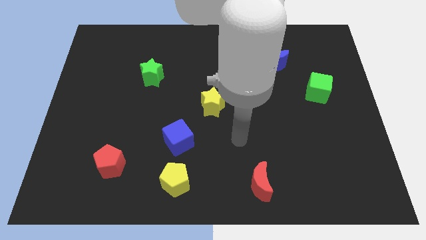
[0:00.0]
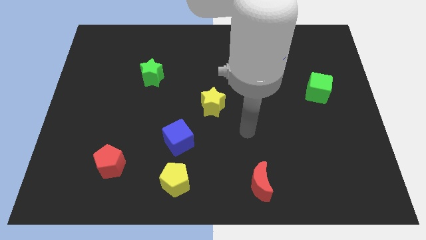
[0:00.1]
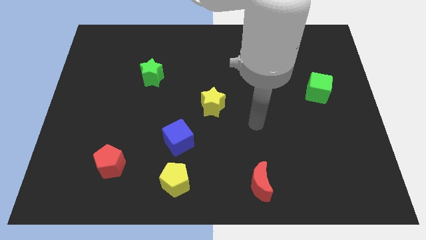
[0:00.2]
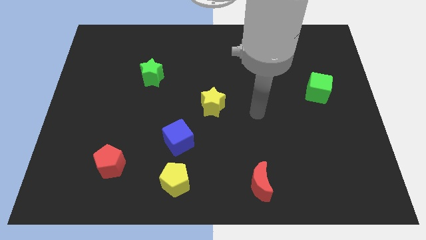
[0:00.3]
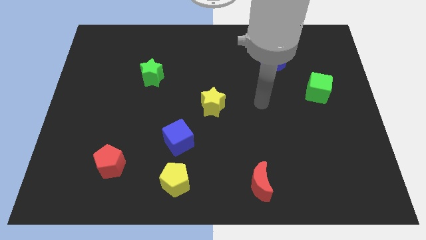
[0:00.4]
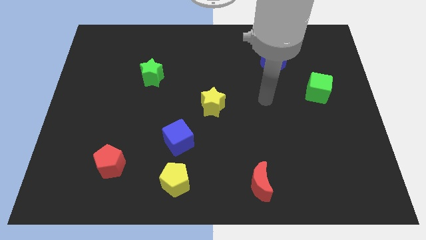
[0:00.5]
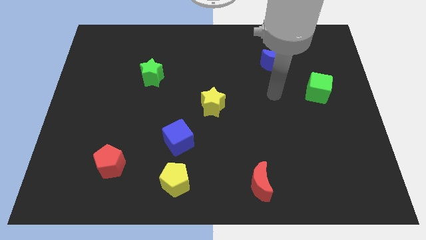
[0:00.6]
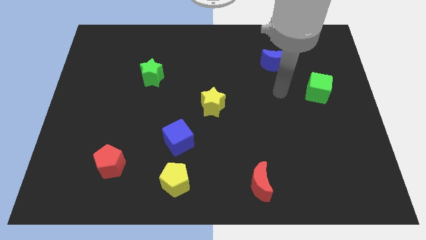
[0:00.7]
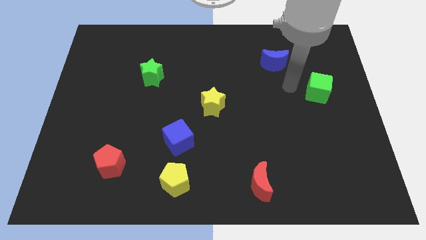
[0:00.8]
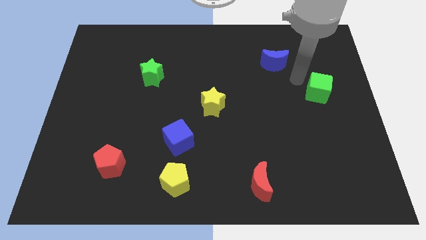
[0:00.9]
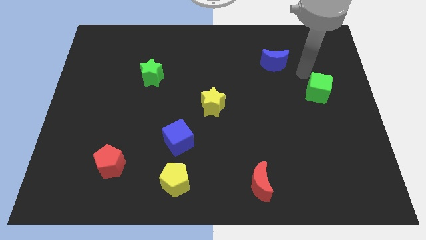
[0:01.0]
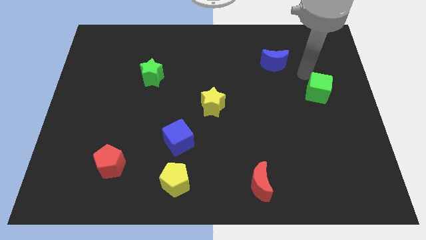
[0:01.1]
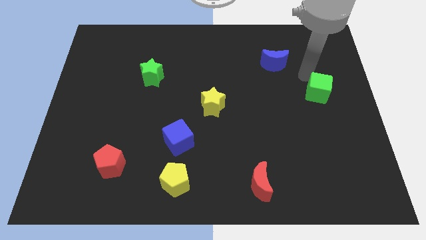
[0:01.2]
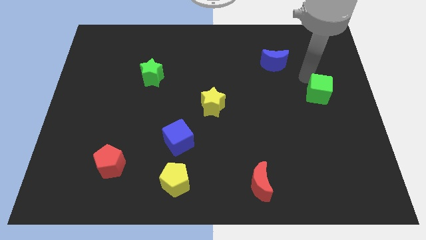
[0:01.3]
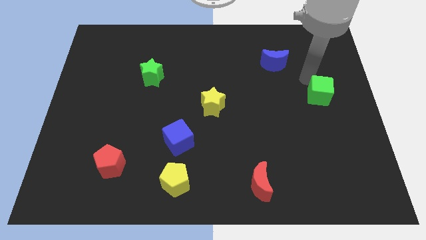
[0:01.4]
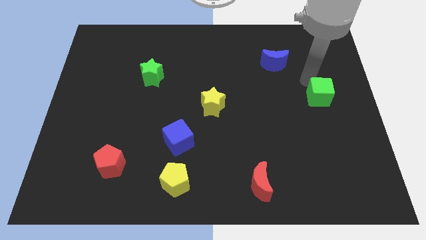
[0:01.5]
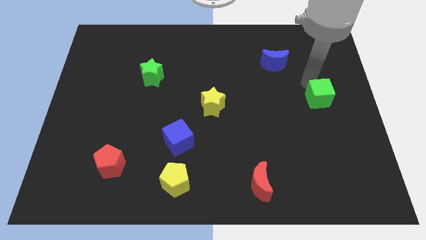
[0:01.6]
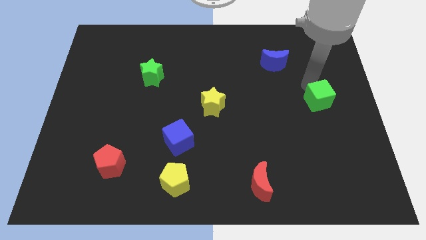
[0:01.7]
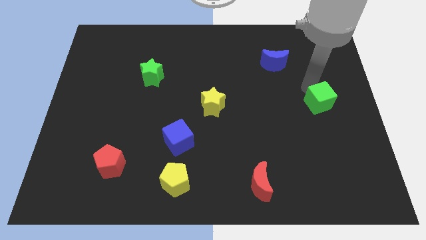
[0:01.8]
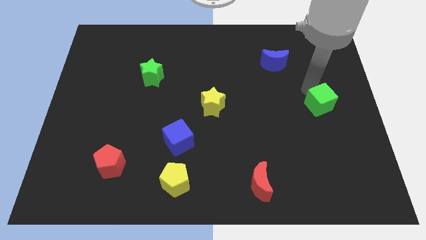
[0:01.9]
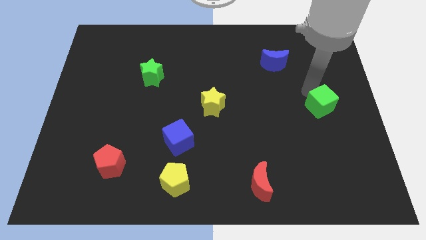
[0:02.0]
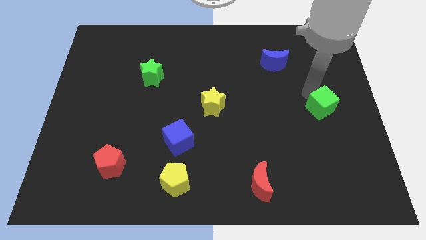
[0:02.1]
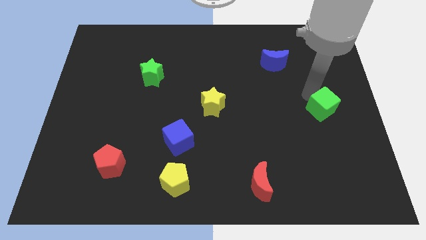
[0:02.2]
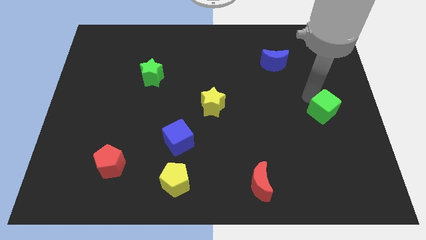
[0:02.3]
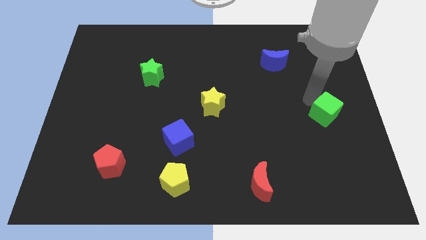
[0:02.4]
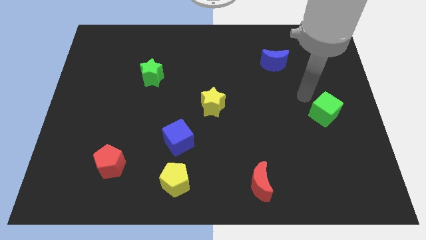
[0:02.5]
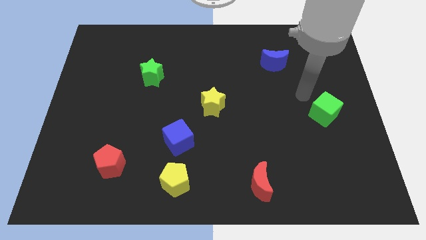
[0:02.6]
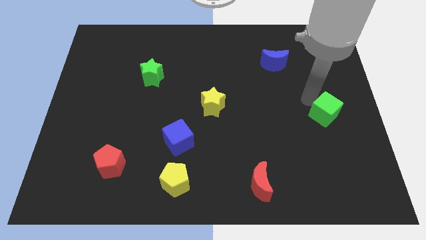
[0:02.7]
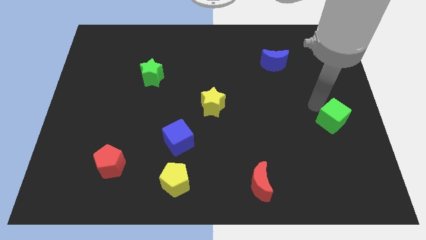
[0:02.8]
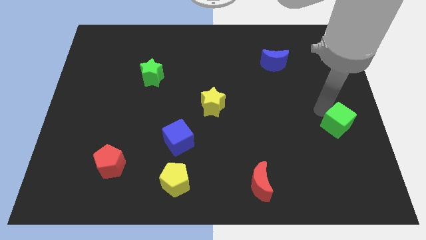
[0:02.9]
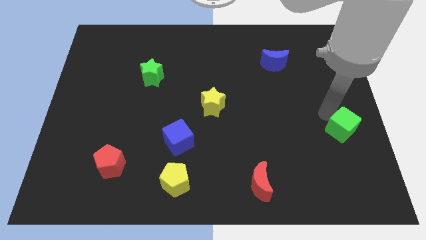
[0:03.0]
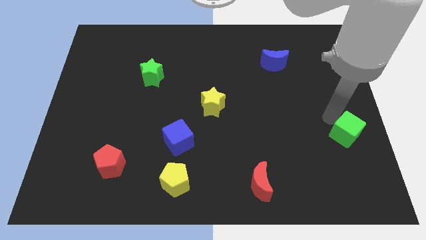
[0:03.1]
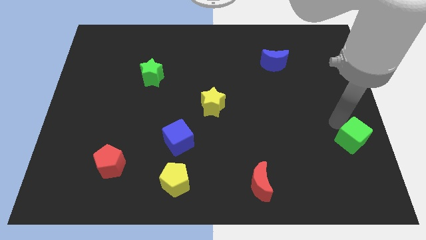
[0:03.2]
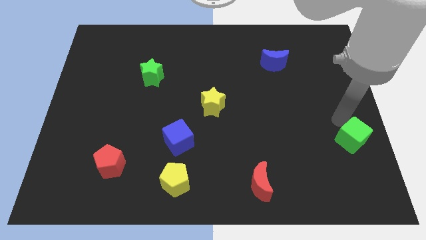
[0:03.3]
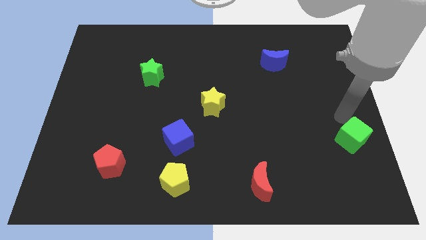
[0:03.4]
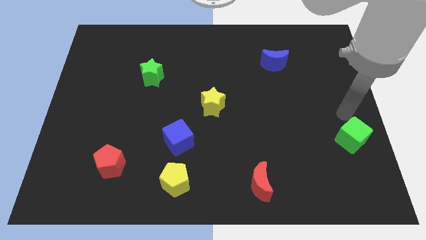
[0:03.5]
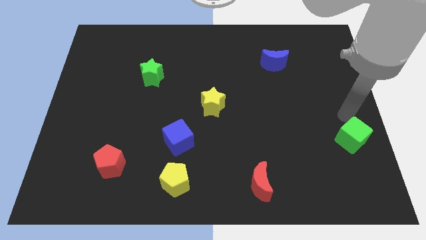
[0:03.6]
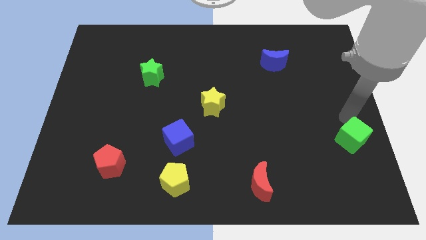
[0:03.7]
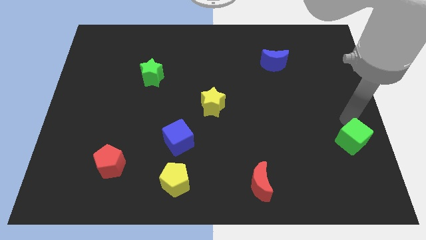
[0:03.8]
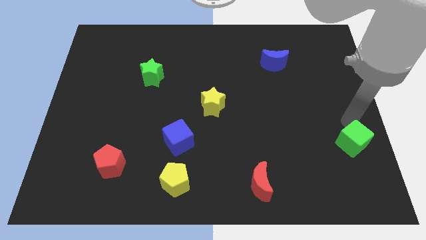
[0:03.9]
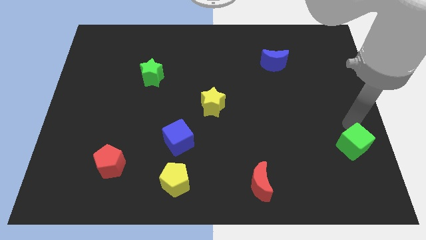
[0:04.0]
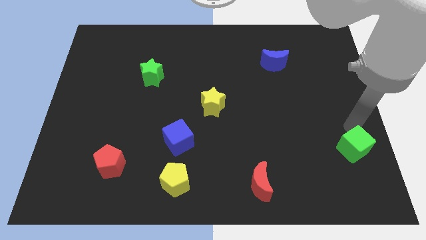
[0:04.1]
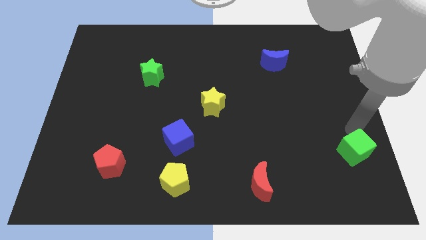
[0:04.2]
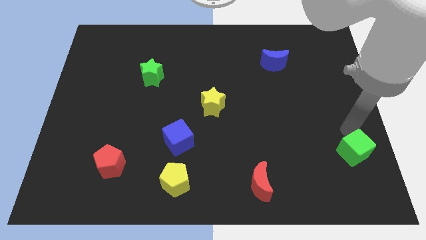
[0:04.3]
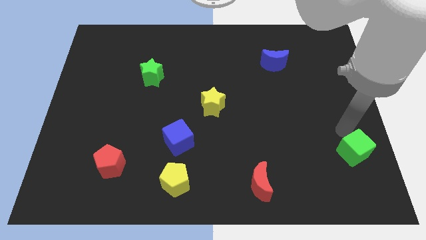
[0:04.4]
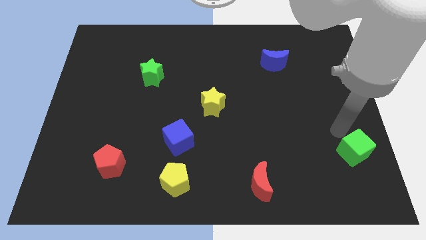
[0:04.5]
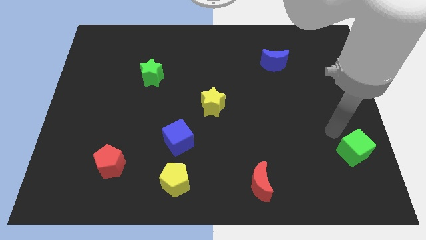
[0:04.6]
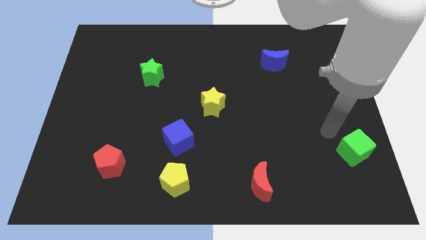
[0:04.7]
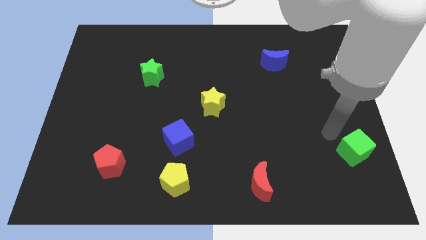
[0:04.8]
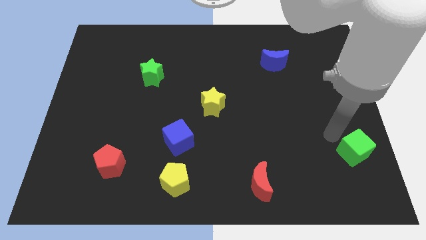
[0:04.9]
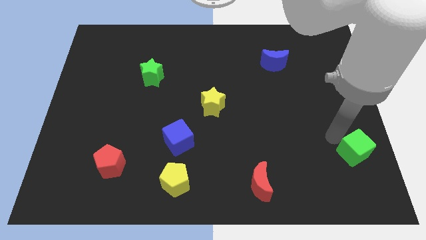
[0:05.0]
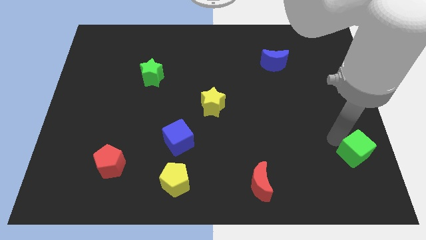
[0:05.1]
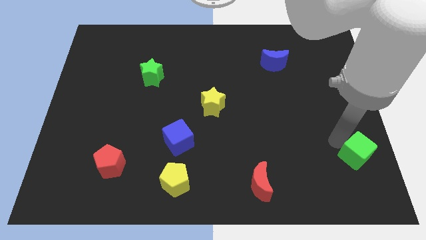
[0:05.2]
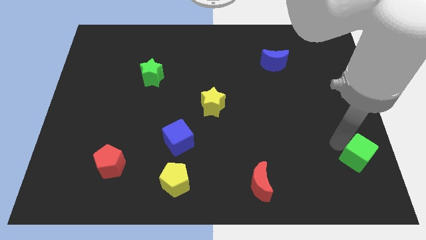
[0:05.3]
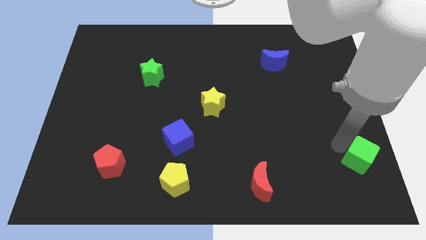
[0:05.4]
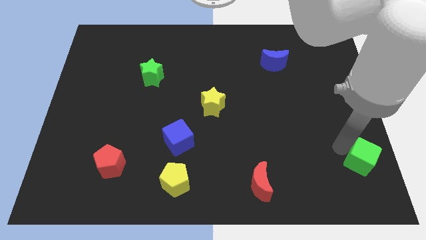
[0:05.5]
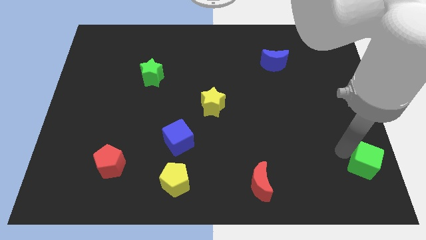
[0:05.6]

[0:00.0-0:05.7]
move the green cube to the bottom right

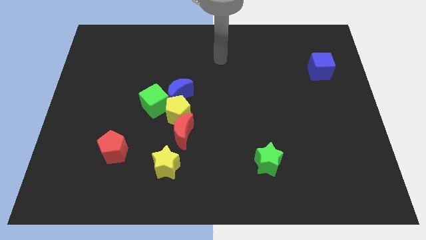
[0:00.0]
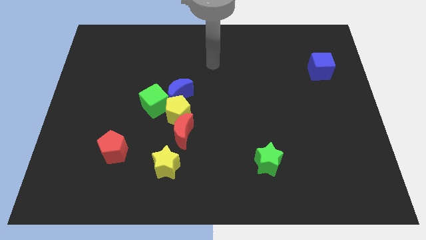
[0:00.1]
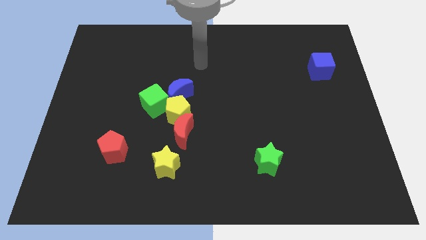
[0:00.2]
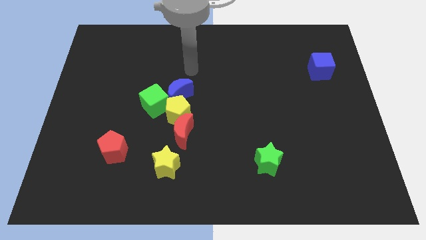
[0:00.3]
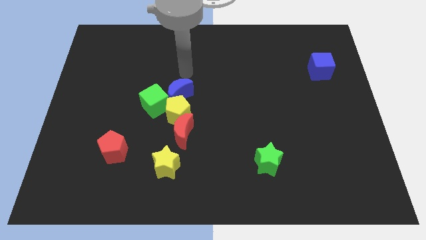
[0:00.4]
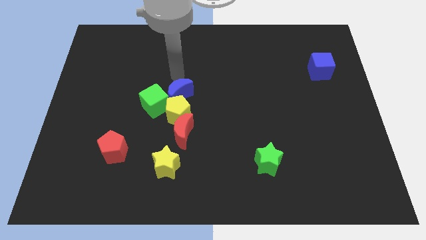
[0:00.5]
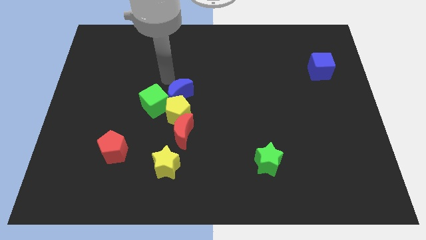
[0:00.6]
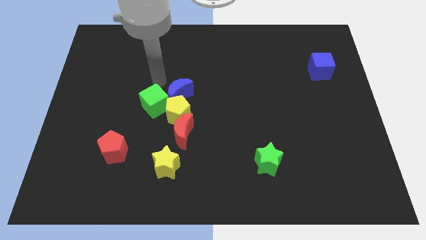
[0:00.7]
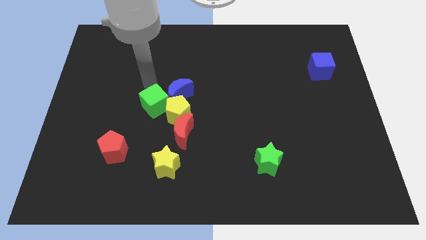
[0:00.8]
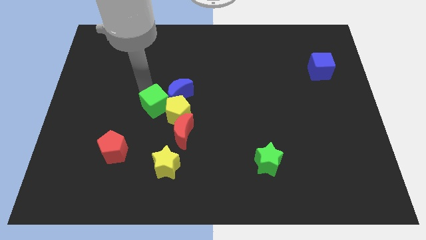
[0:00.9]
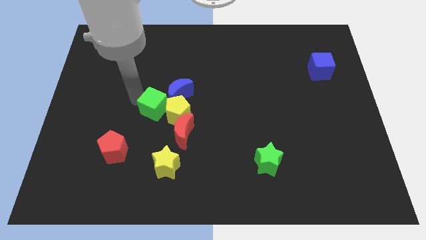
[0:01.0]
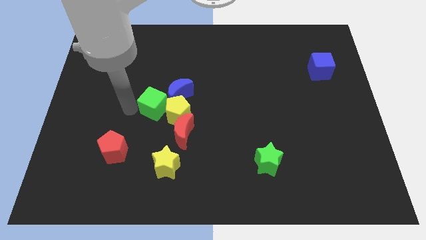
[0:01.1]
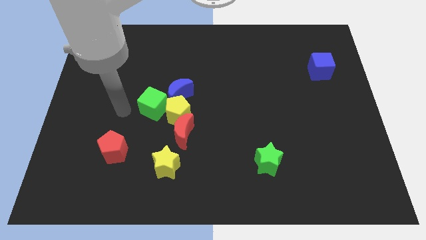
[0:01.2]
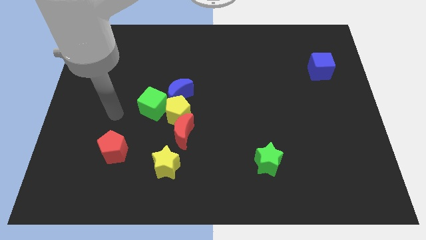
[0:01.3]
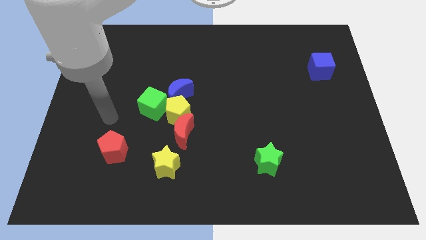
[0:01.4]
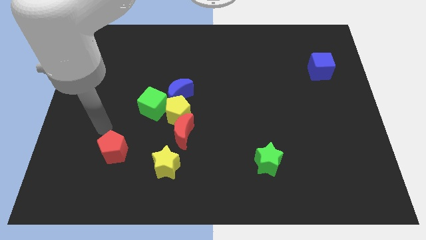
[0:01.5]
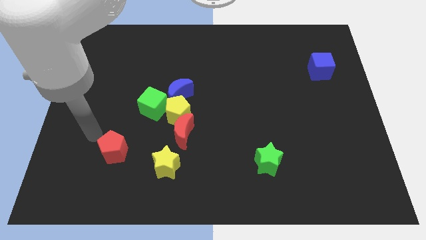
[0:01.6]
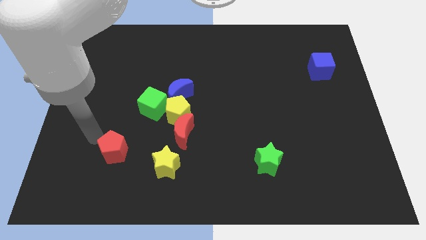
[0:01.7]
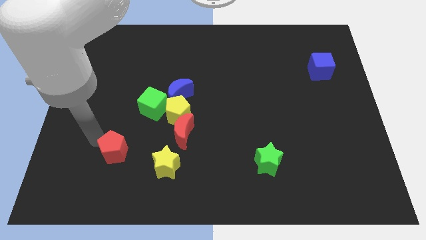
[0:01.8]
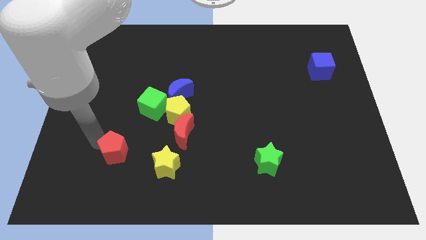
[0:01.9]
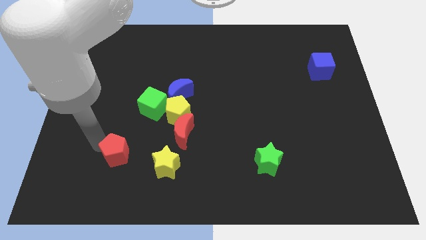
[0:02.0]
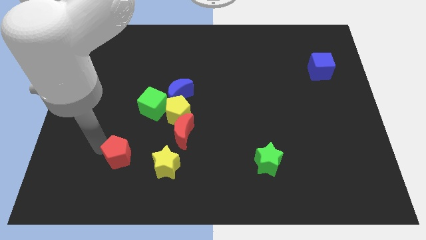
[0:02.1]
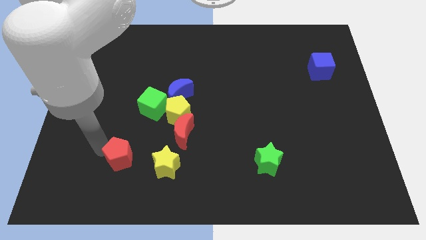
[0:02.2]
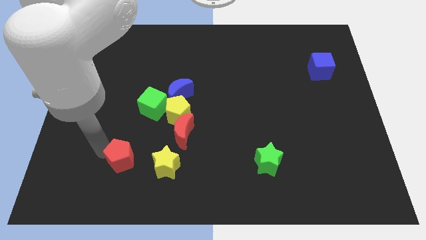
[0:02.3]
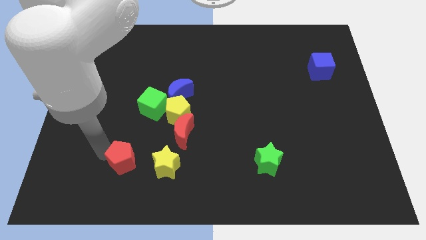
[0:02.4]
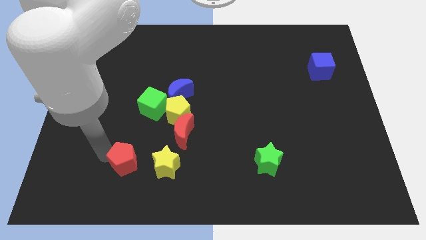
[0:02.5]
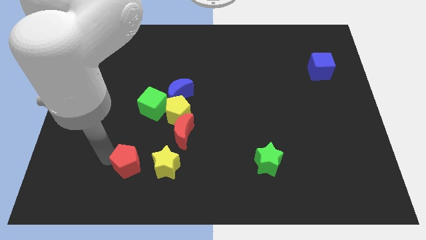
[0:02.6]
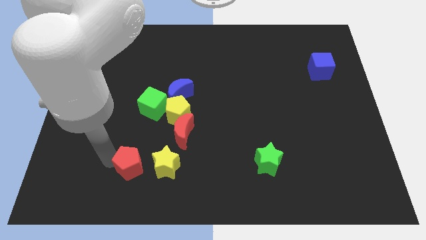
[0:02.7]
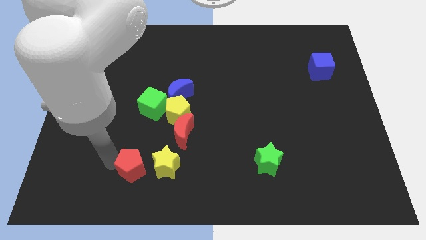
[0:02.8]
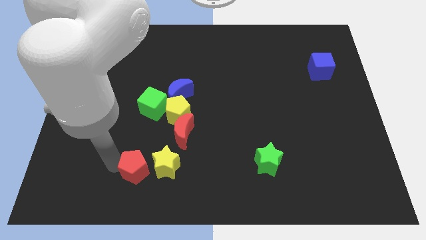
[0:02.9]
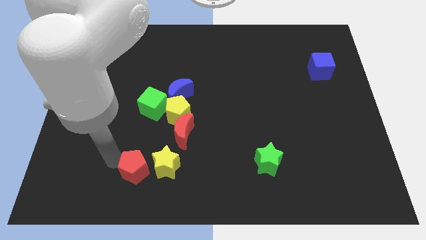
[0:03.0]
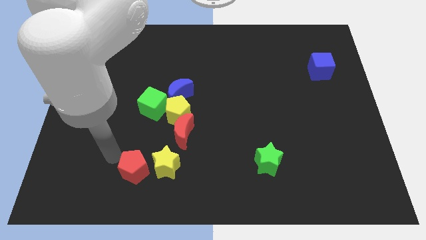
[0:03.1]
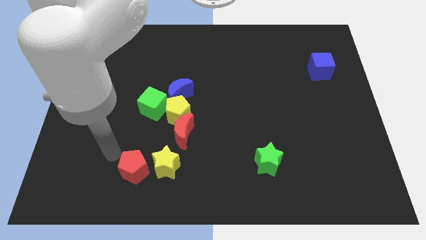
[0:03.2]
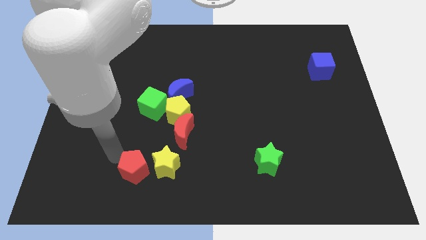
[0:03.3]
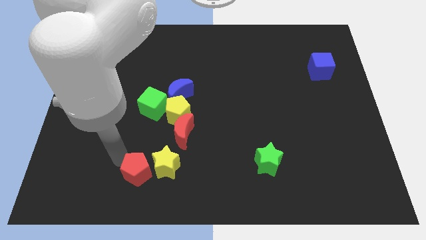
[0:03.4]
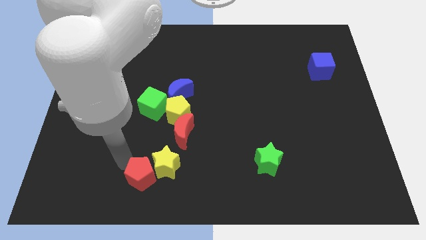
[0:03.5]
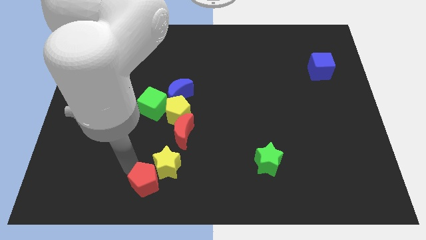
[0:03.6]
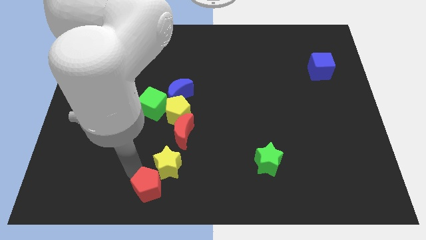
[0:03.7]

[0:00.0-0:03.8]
push the red pentagon to the bottom side
